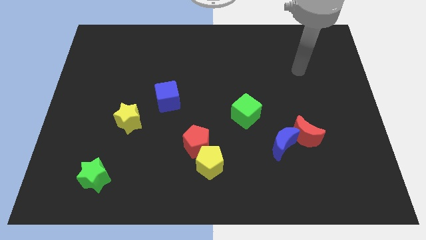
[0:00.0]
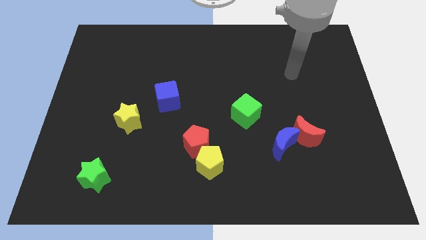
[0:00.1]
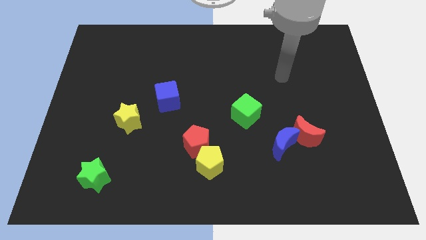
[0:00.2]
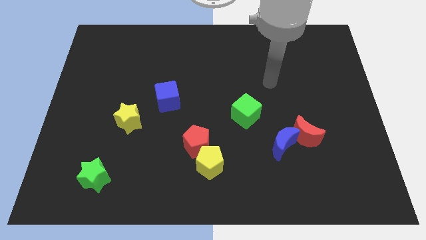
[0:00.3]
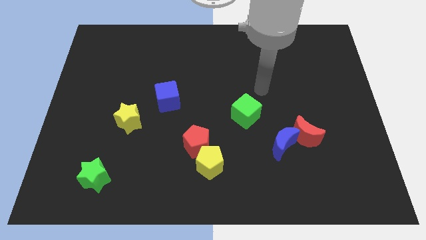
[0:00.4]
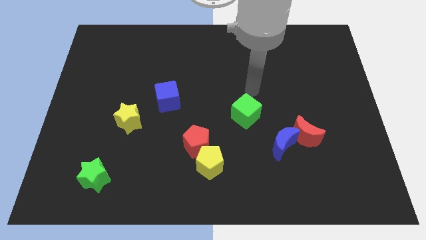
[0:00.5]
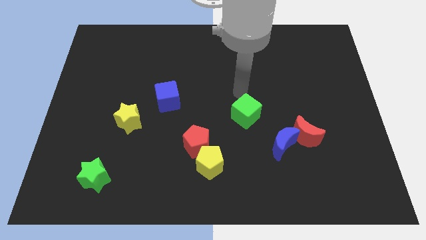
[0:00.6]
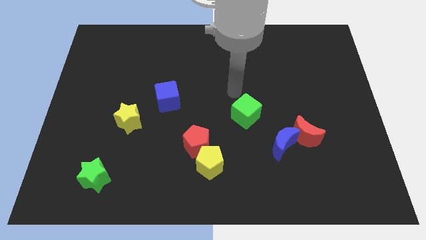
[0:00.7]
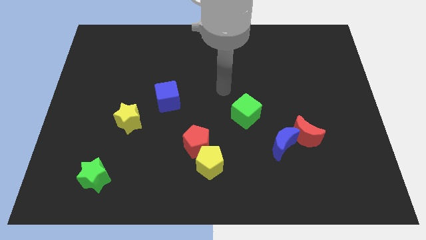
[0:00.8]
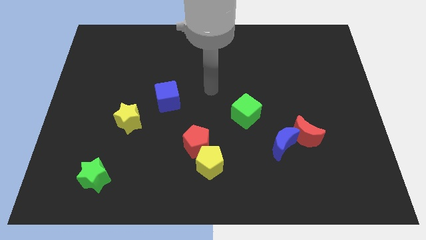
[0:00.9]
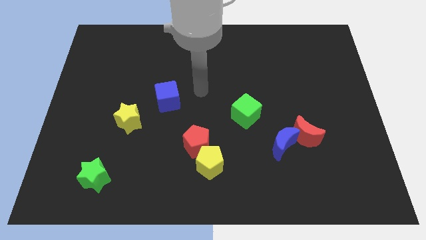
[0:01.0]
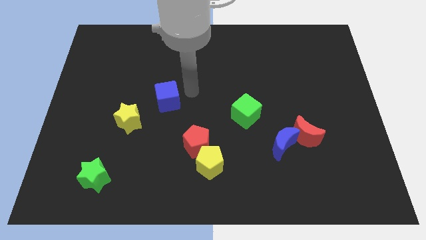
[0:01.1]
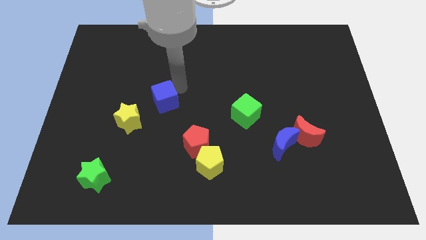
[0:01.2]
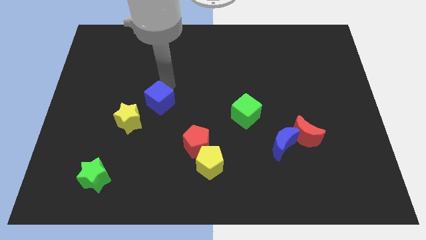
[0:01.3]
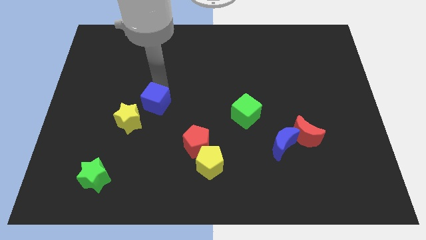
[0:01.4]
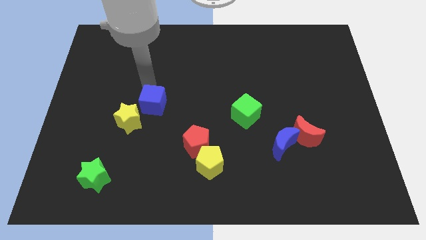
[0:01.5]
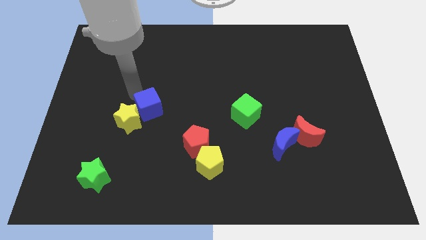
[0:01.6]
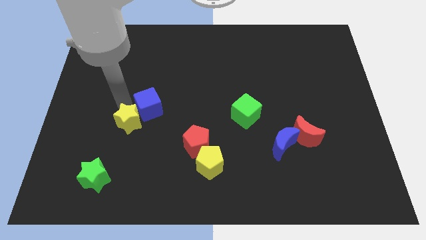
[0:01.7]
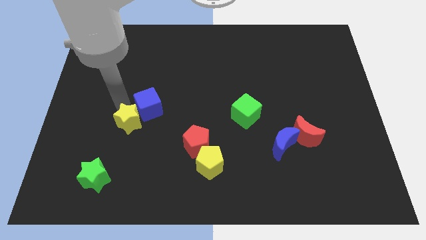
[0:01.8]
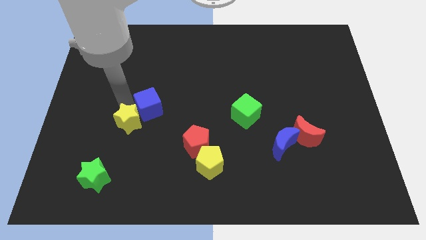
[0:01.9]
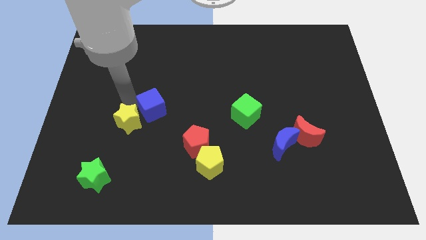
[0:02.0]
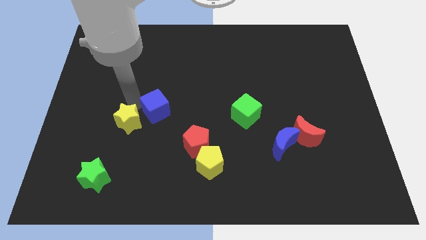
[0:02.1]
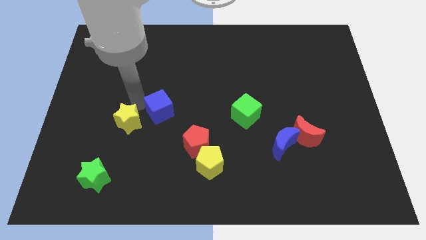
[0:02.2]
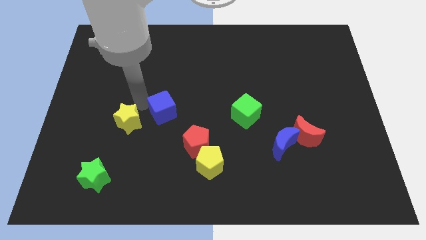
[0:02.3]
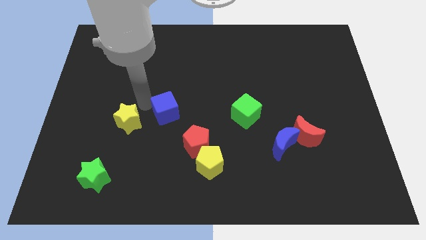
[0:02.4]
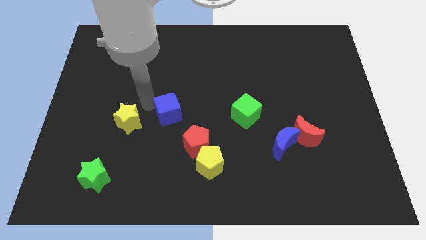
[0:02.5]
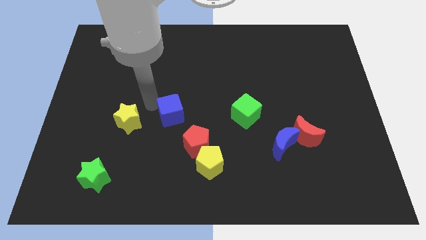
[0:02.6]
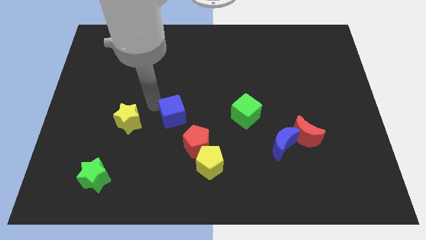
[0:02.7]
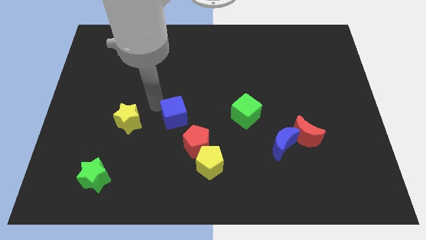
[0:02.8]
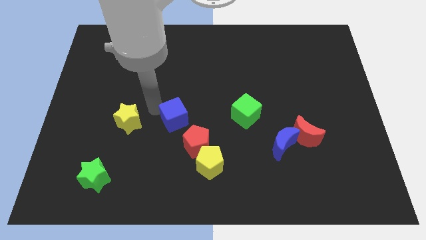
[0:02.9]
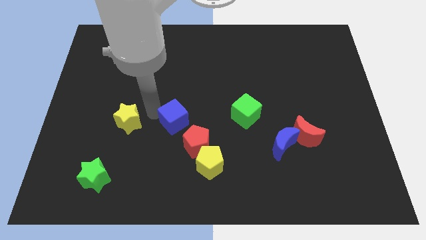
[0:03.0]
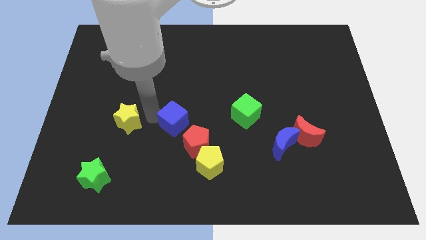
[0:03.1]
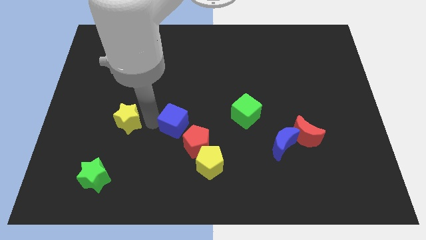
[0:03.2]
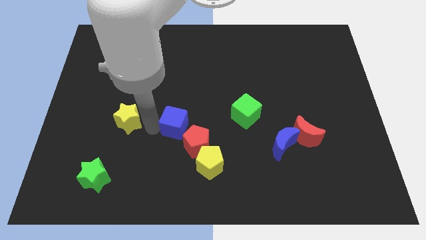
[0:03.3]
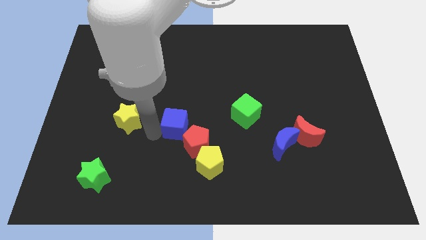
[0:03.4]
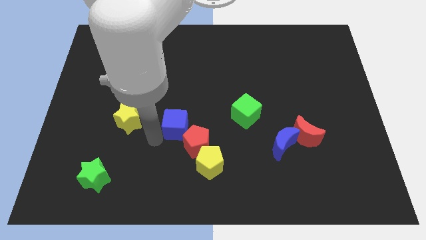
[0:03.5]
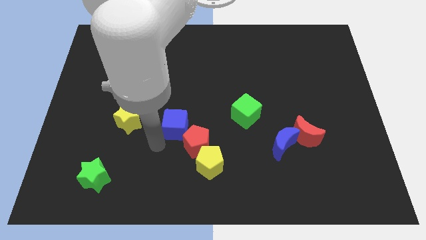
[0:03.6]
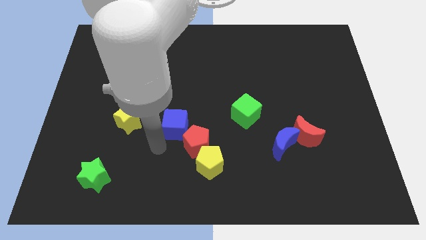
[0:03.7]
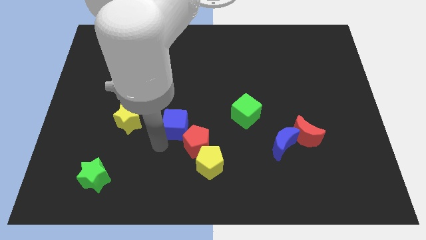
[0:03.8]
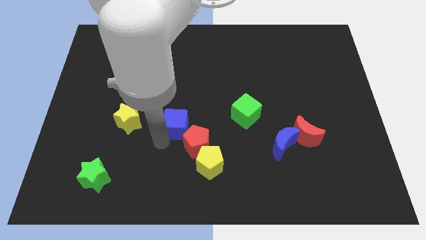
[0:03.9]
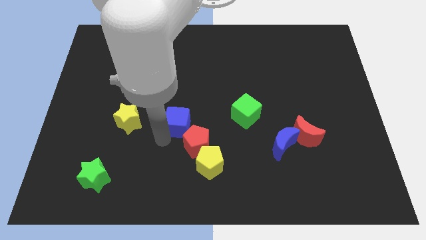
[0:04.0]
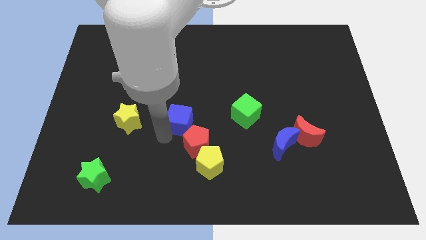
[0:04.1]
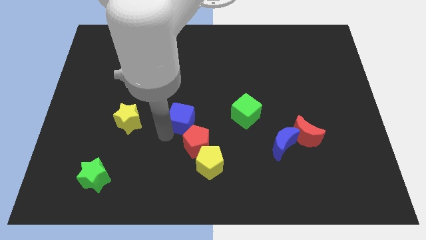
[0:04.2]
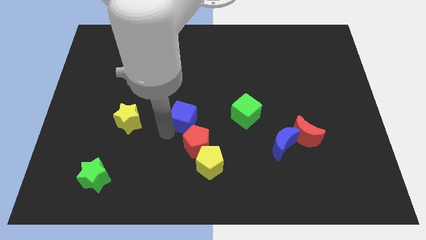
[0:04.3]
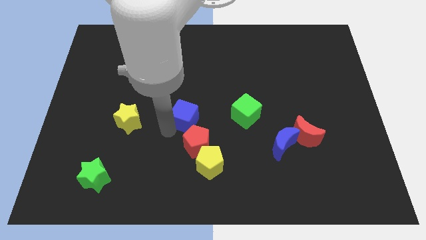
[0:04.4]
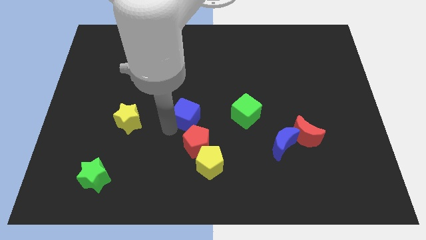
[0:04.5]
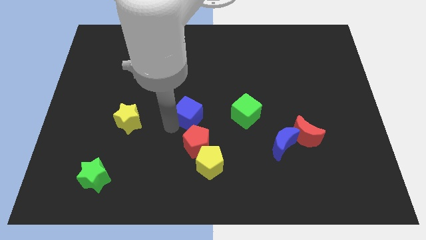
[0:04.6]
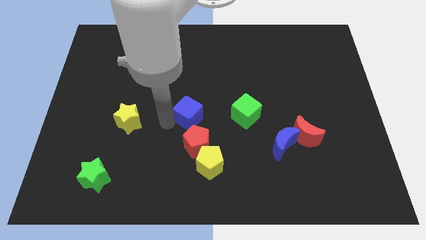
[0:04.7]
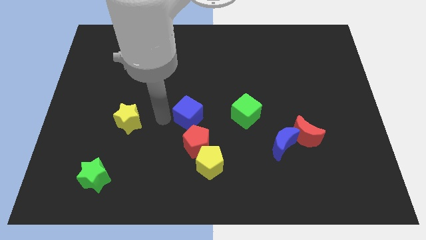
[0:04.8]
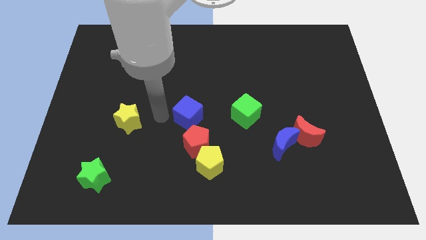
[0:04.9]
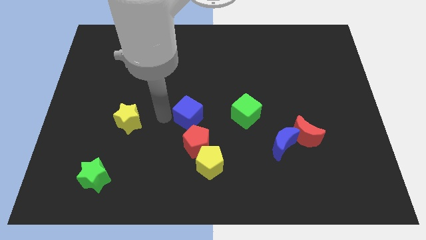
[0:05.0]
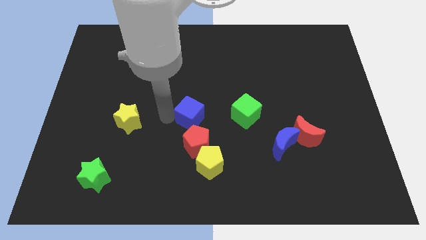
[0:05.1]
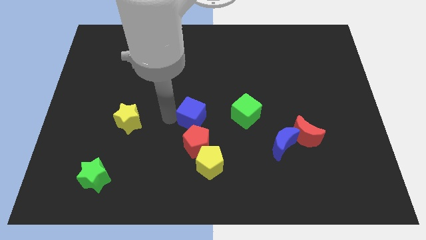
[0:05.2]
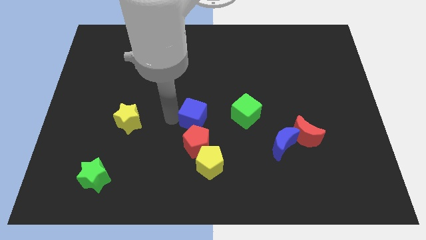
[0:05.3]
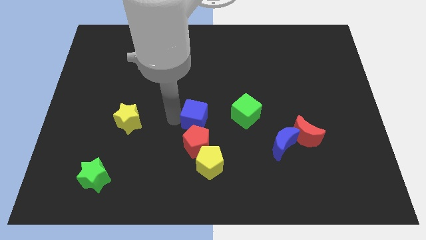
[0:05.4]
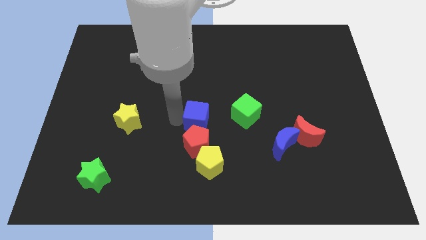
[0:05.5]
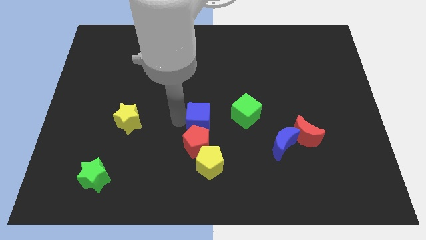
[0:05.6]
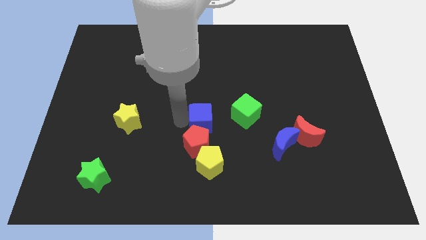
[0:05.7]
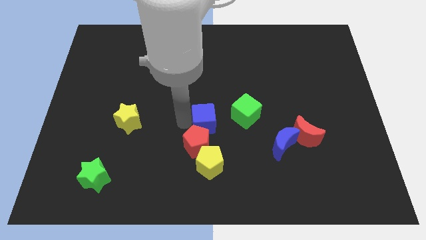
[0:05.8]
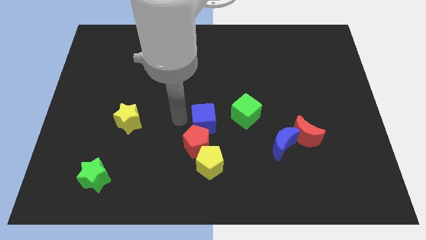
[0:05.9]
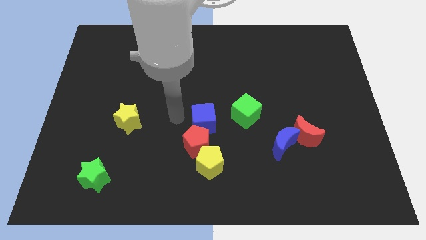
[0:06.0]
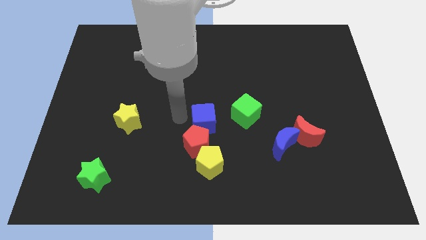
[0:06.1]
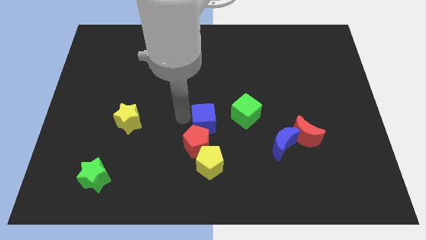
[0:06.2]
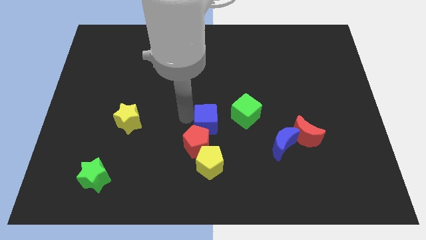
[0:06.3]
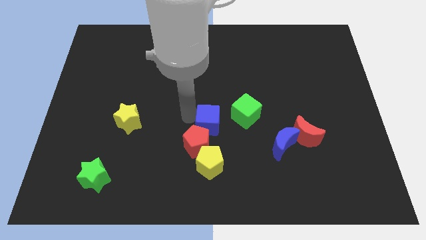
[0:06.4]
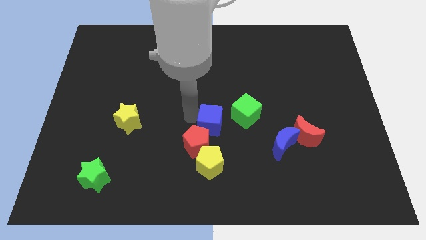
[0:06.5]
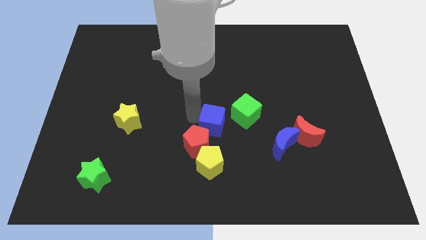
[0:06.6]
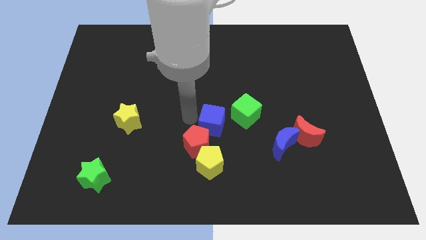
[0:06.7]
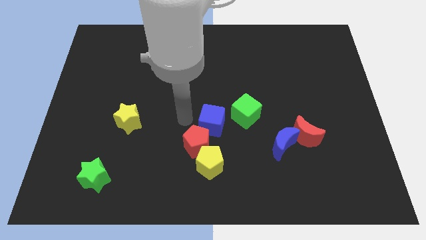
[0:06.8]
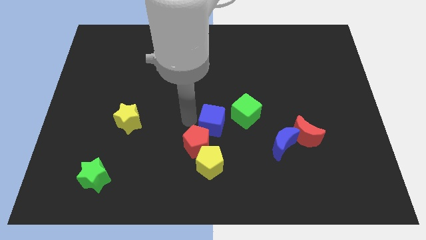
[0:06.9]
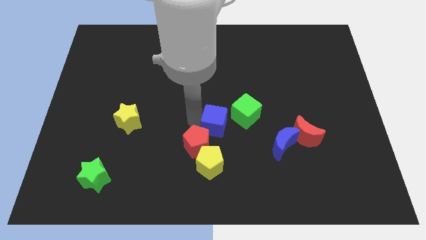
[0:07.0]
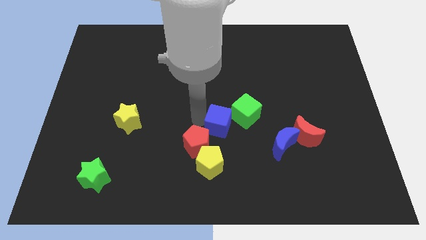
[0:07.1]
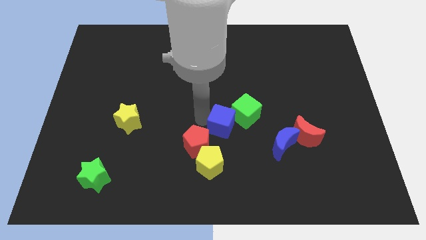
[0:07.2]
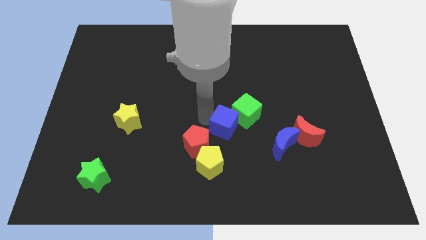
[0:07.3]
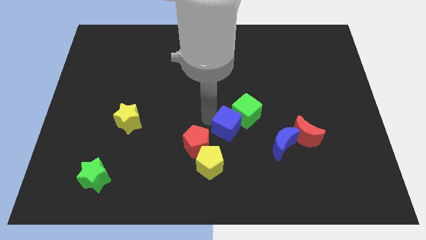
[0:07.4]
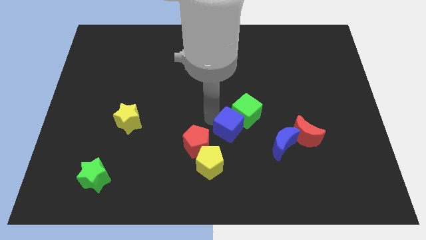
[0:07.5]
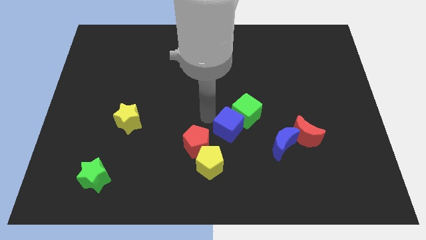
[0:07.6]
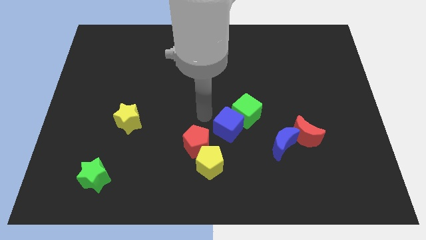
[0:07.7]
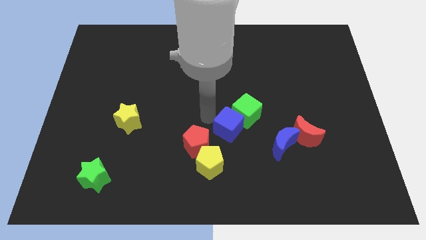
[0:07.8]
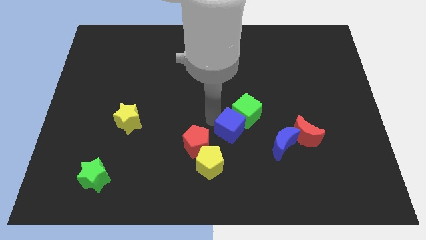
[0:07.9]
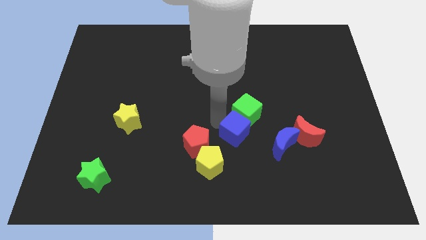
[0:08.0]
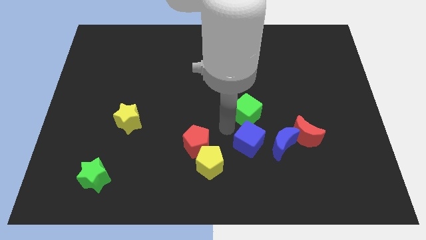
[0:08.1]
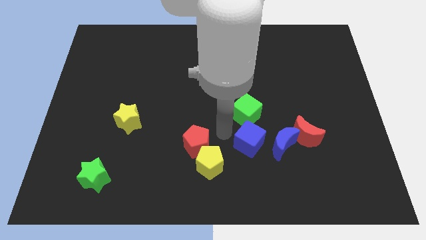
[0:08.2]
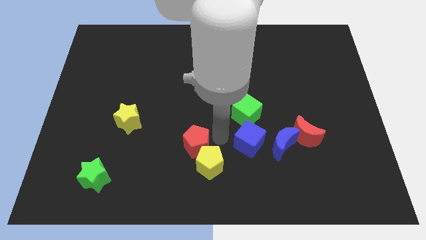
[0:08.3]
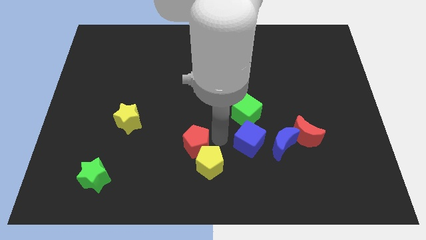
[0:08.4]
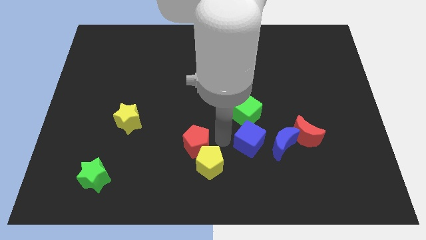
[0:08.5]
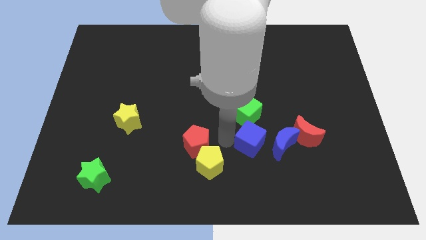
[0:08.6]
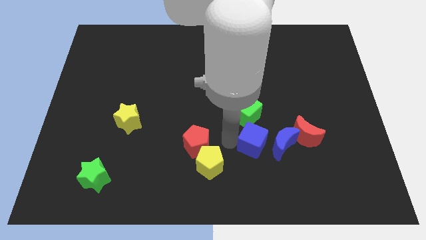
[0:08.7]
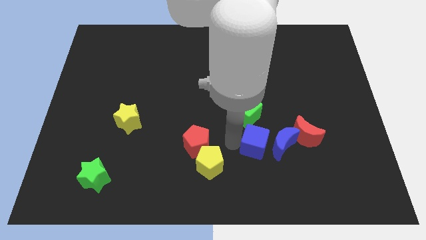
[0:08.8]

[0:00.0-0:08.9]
move the blue cube next to the blue moon
